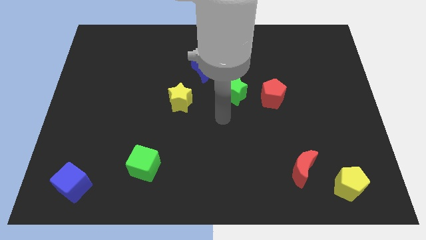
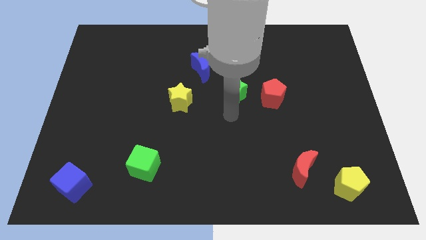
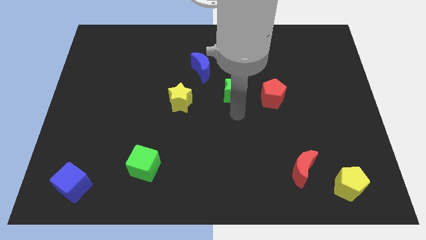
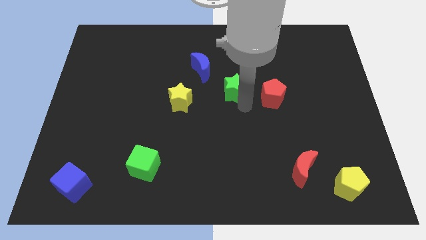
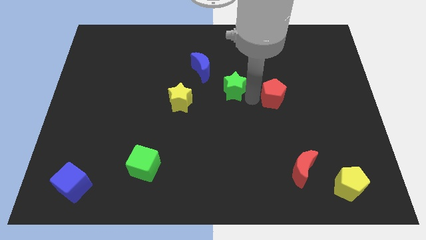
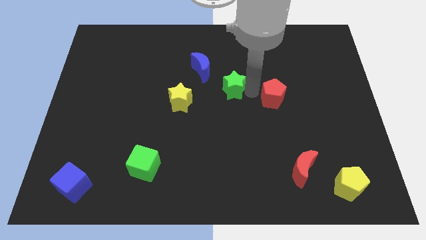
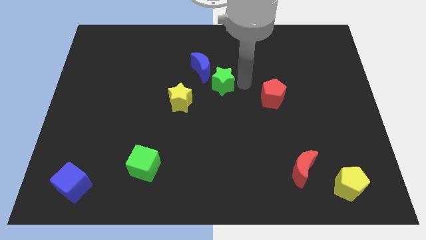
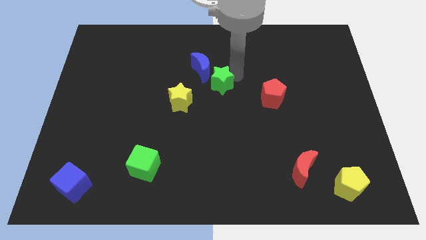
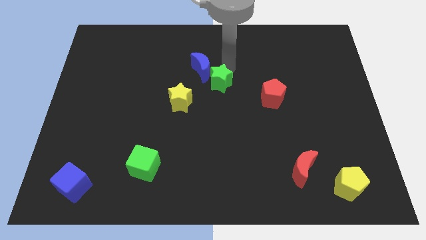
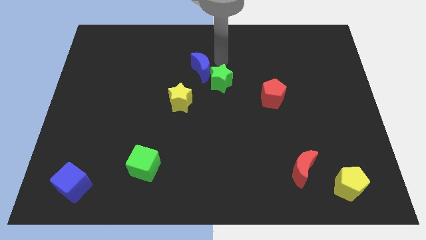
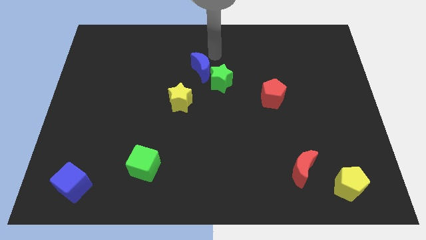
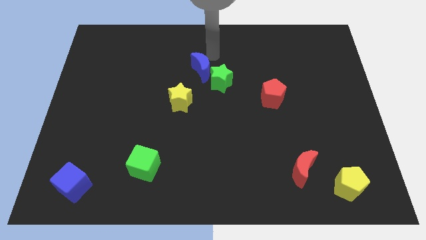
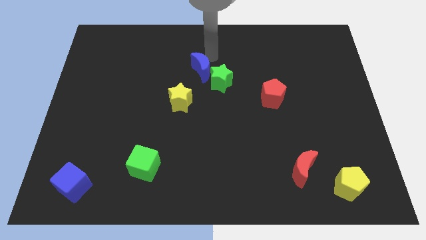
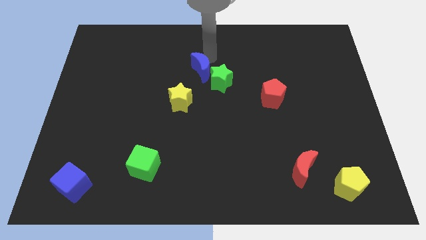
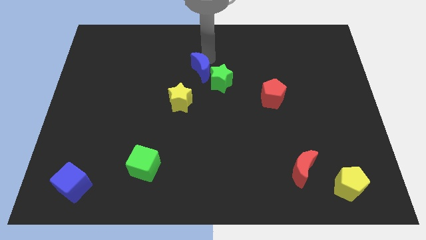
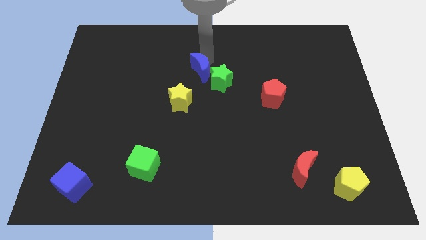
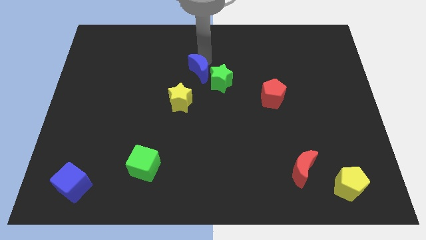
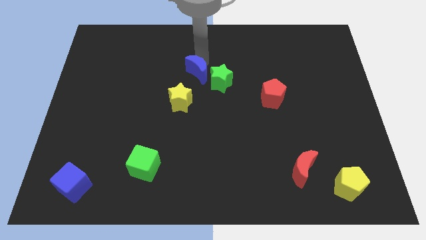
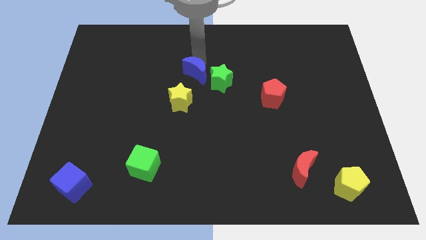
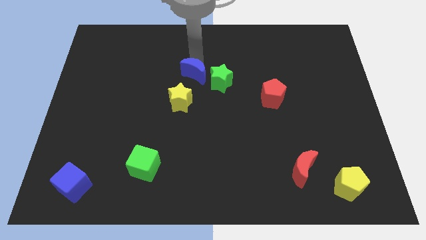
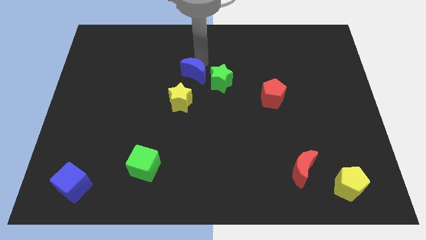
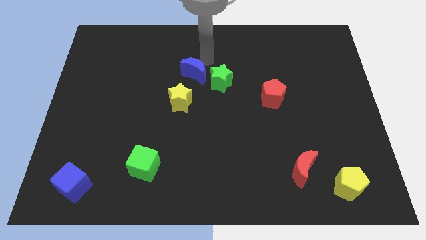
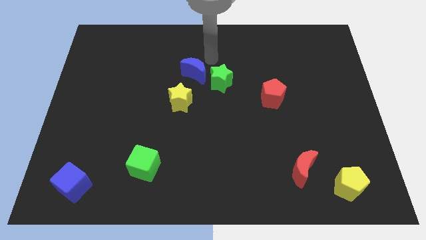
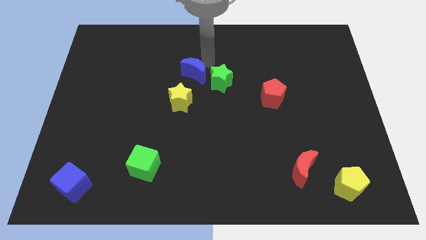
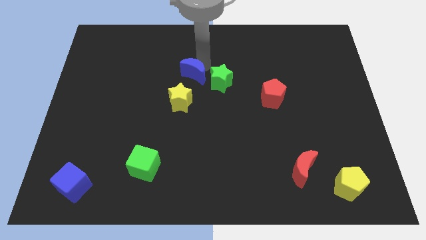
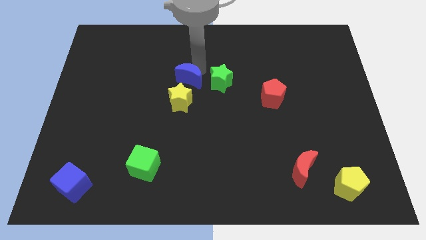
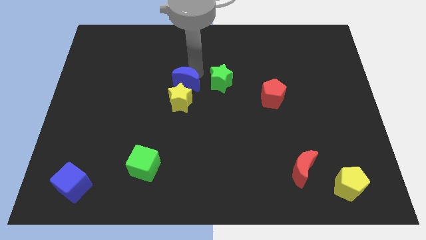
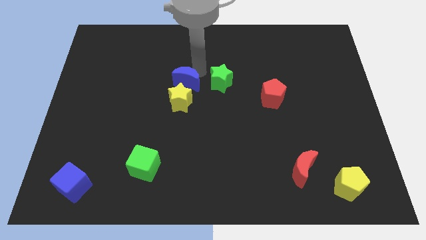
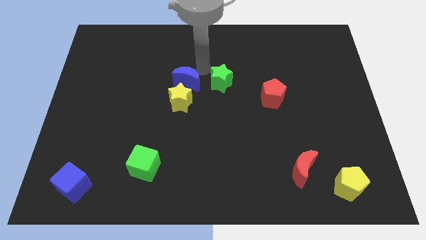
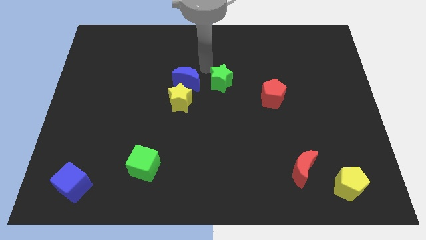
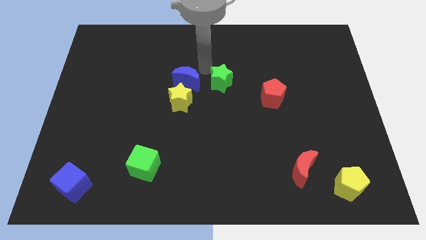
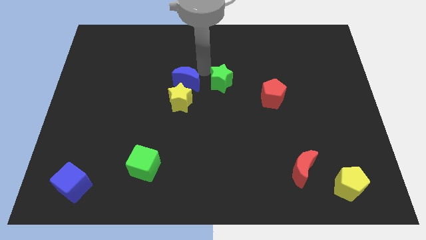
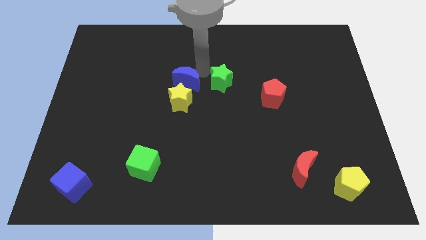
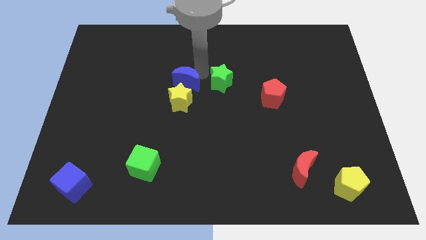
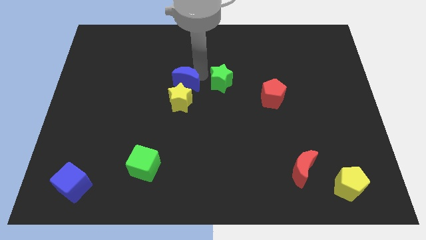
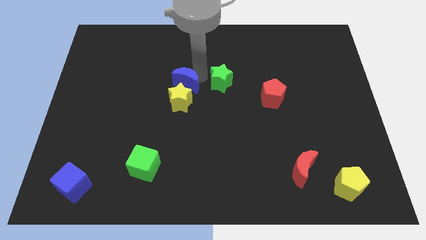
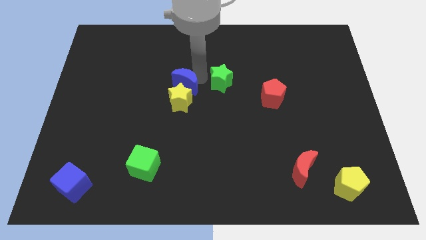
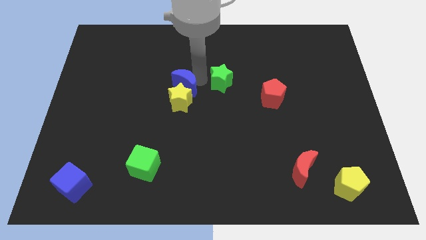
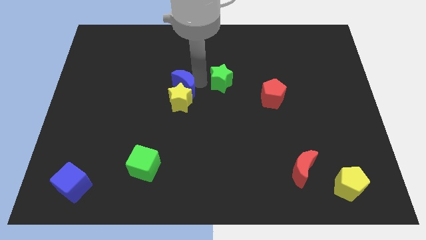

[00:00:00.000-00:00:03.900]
move the blue moon down and to the left diagonally slightly

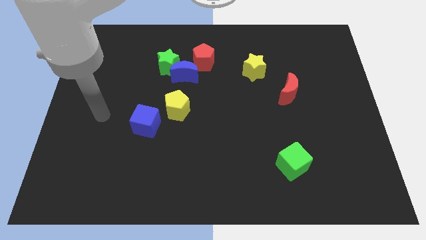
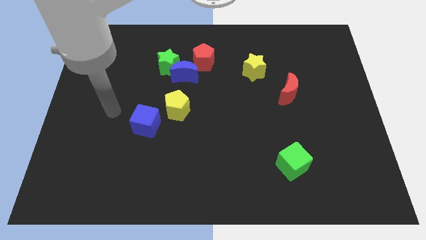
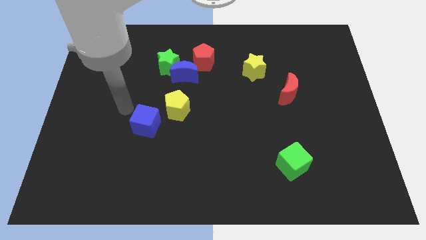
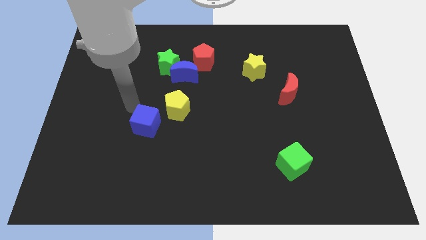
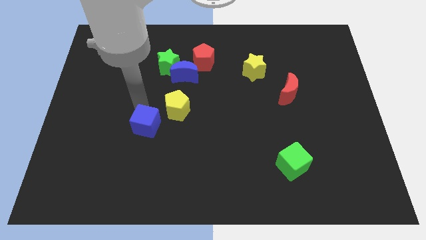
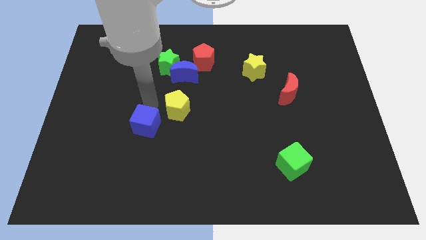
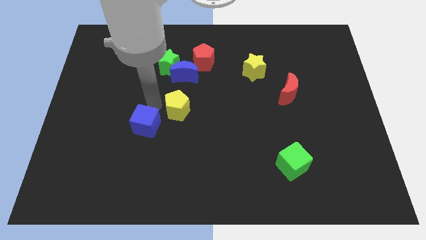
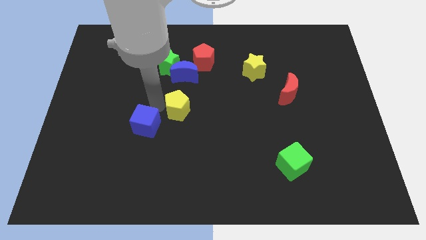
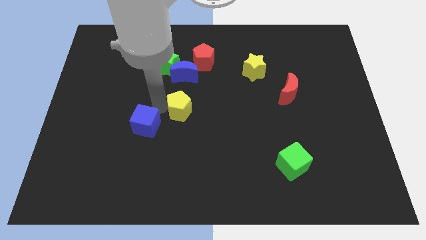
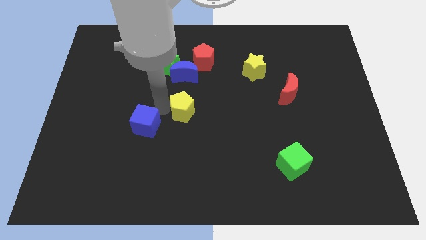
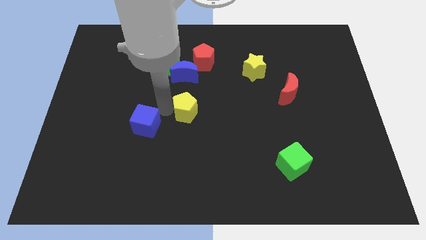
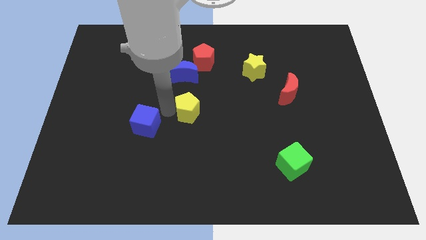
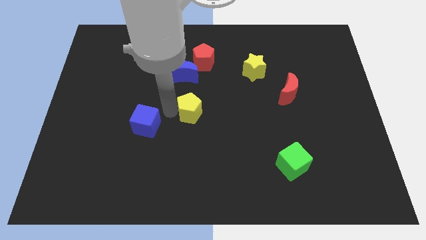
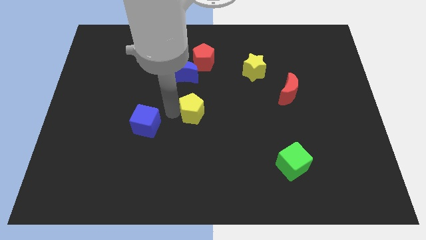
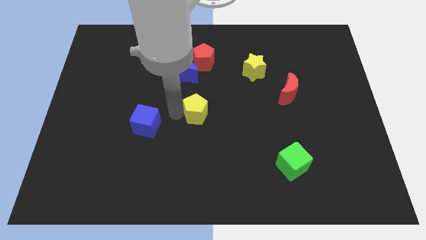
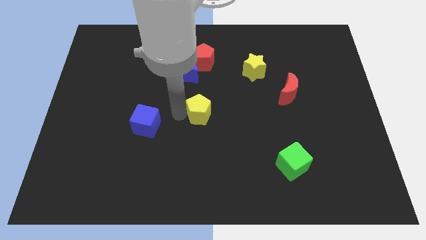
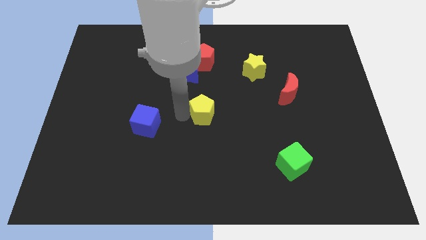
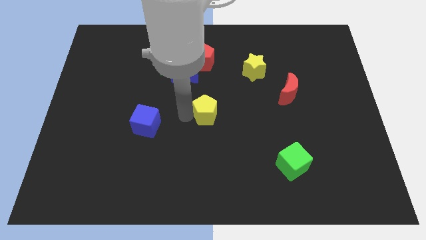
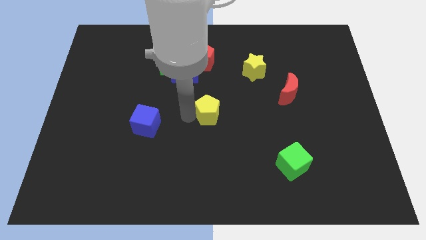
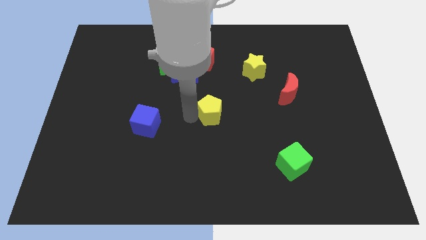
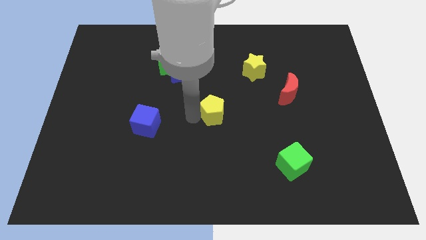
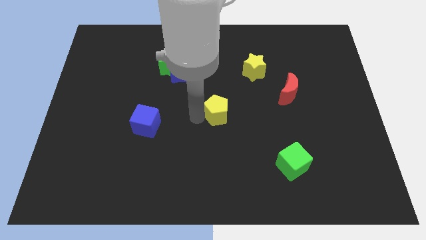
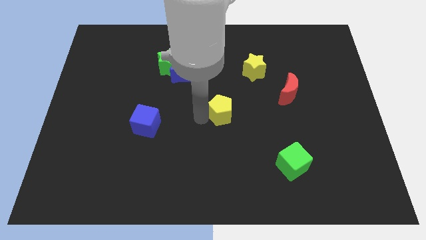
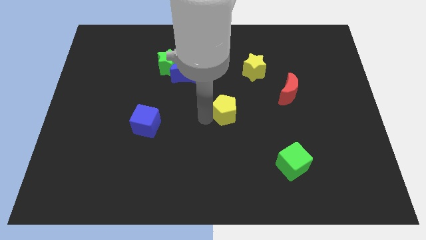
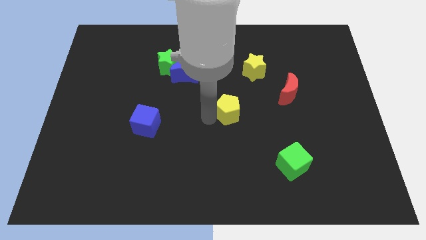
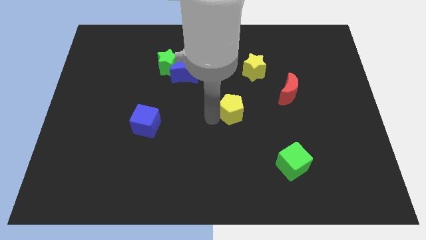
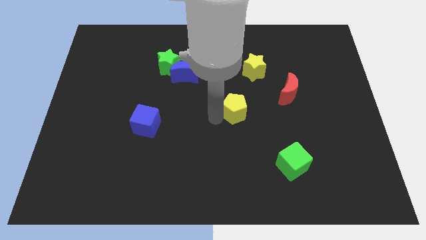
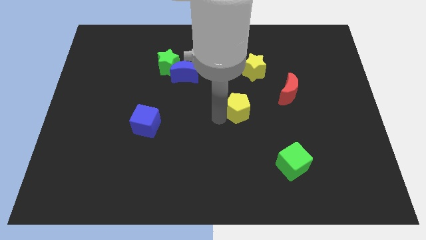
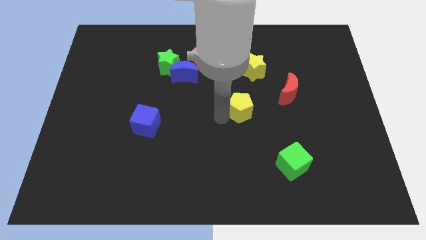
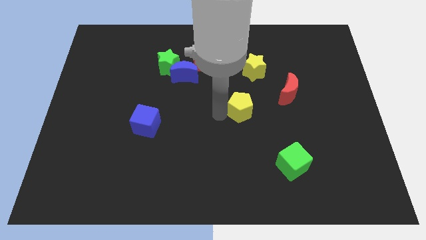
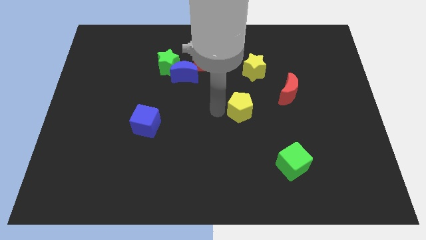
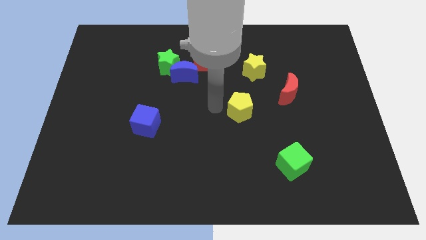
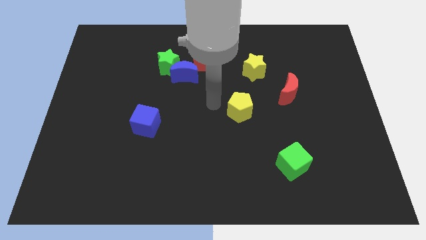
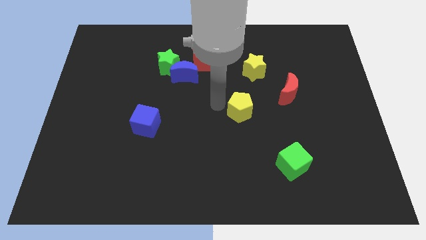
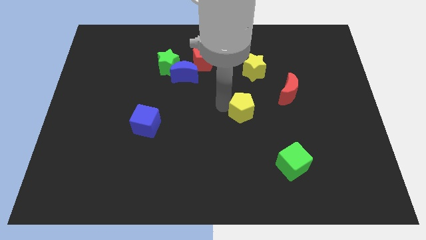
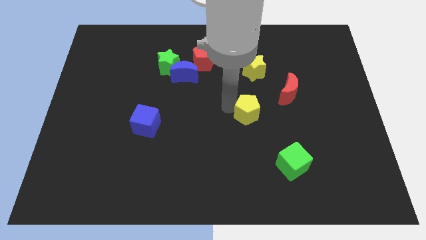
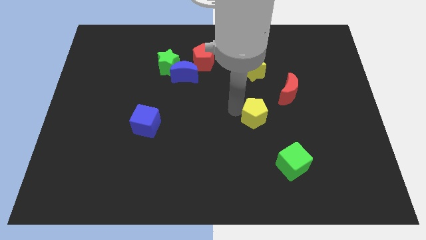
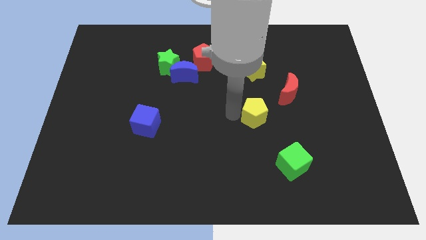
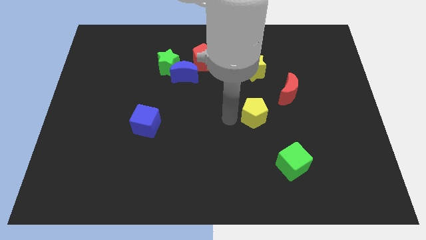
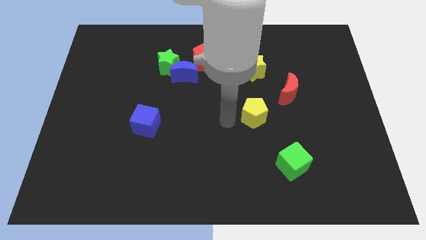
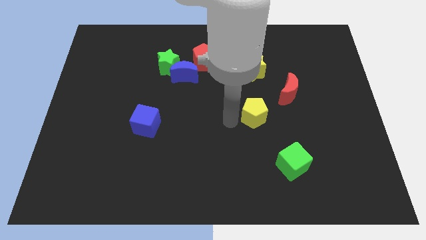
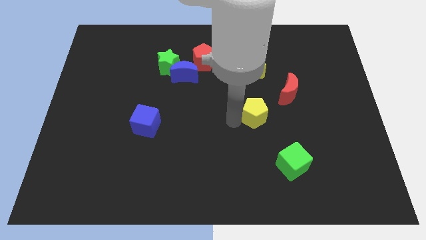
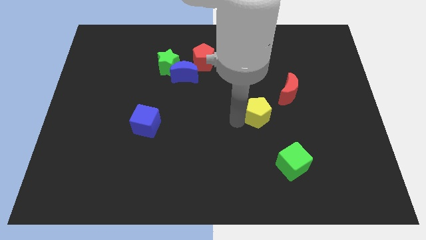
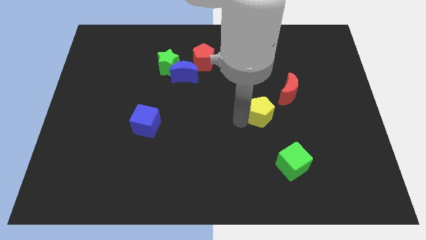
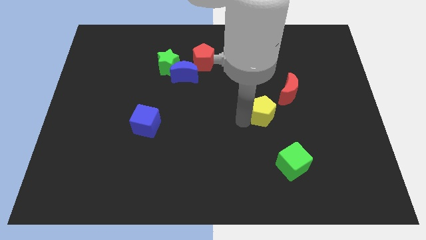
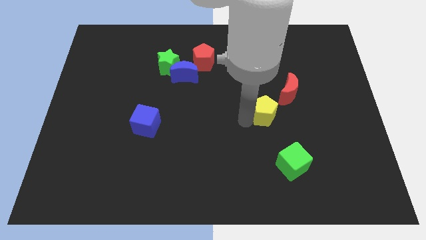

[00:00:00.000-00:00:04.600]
slide the yellow pentagon to the right
